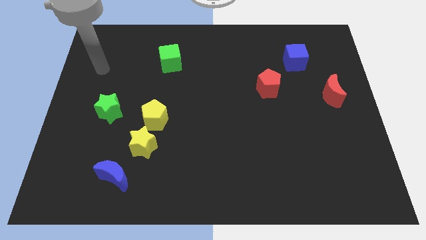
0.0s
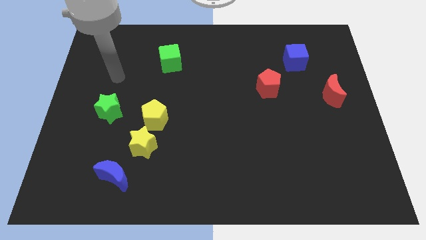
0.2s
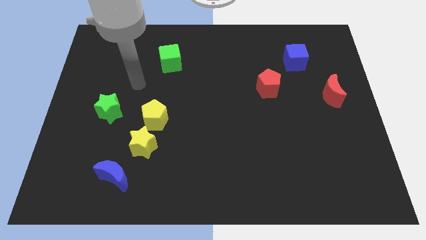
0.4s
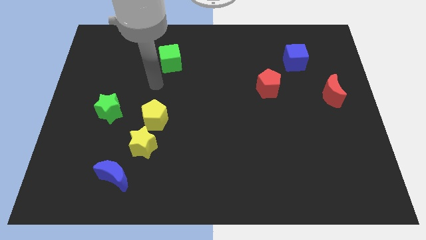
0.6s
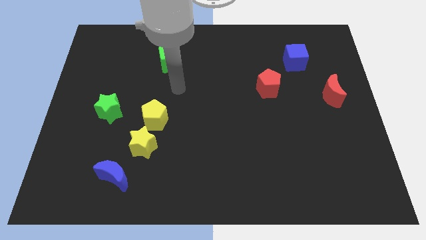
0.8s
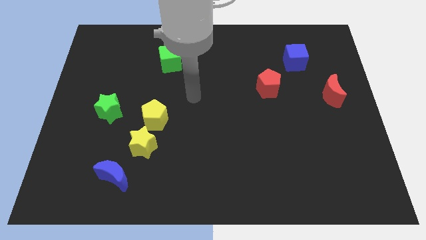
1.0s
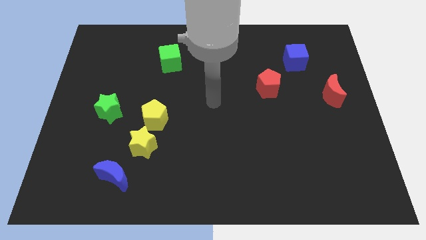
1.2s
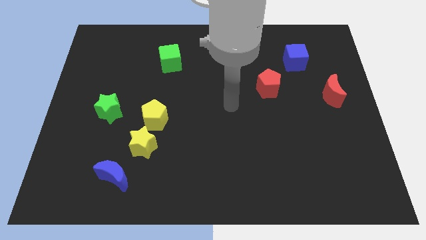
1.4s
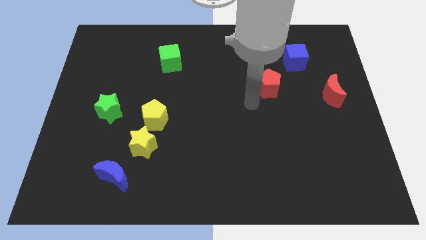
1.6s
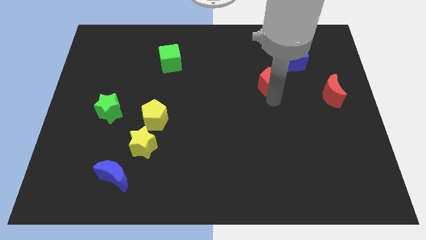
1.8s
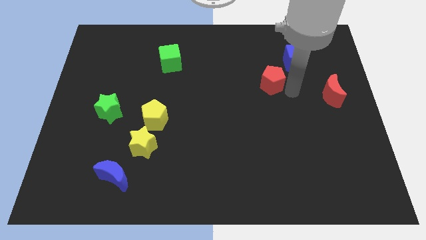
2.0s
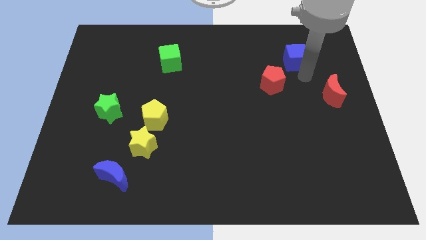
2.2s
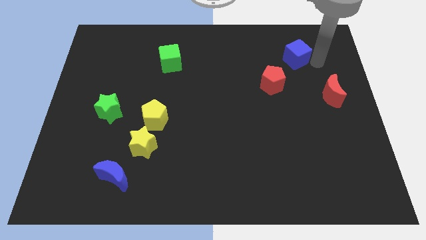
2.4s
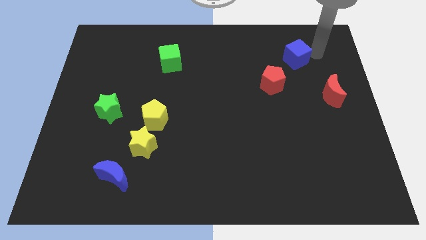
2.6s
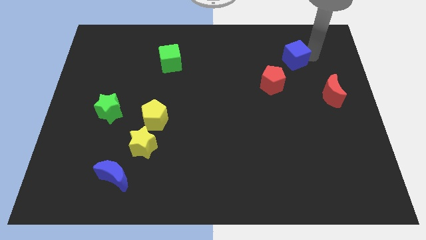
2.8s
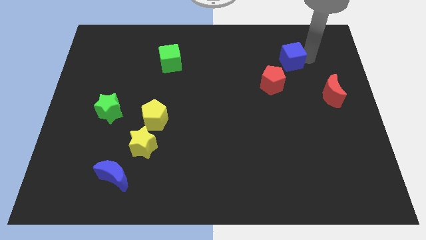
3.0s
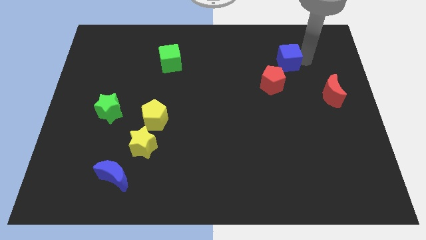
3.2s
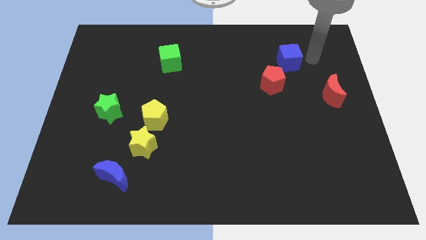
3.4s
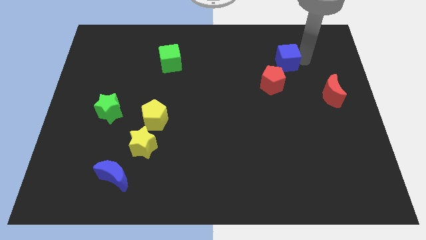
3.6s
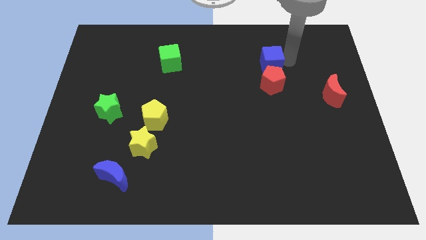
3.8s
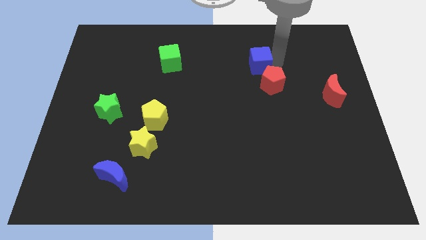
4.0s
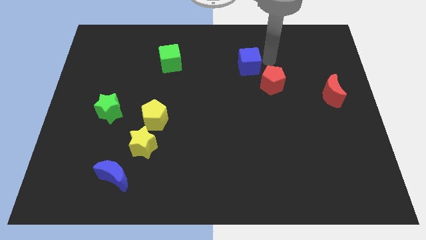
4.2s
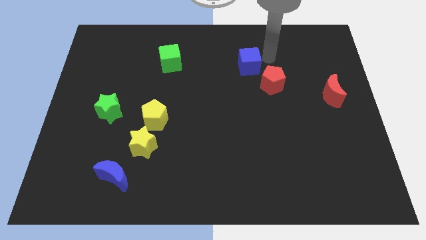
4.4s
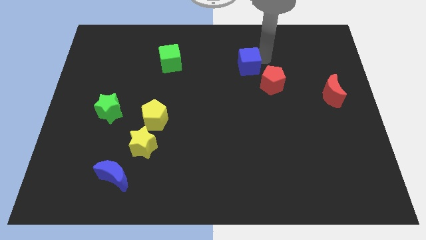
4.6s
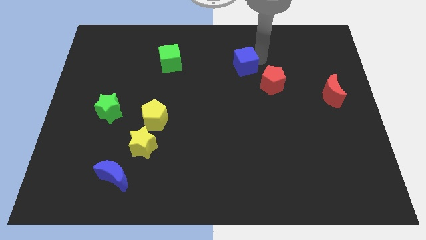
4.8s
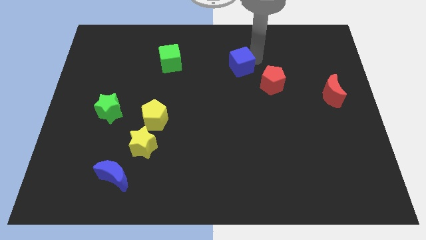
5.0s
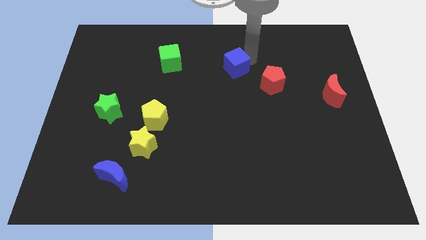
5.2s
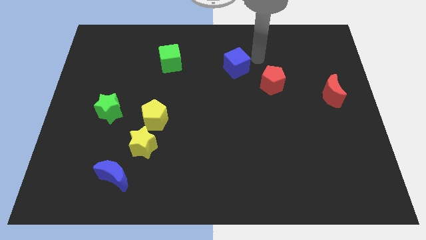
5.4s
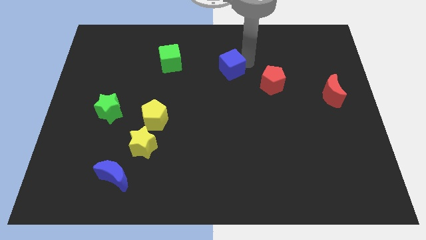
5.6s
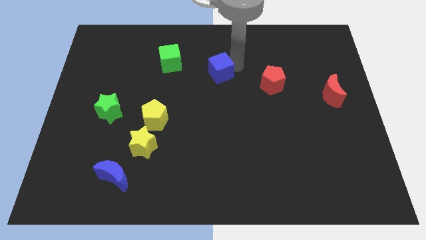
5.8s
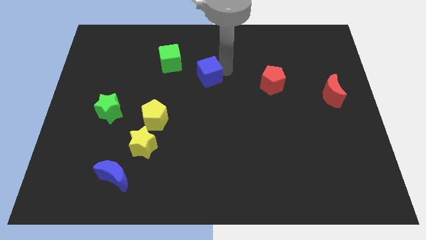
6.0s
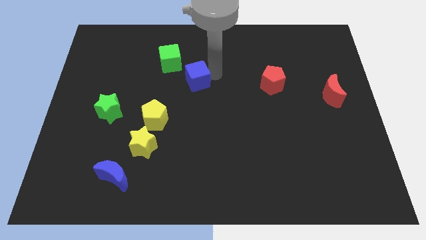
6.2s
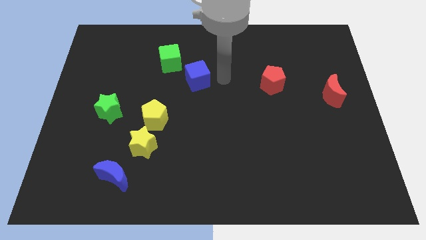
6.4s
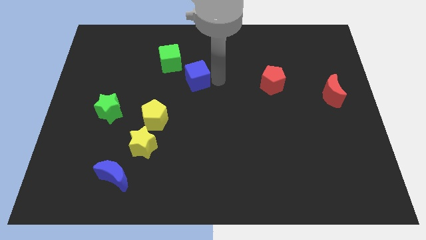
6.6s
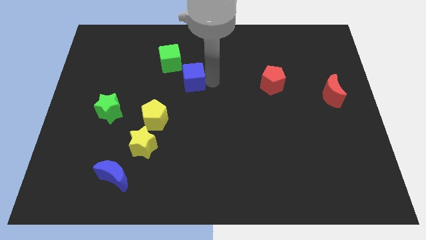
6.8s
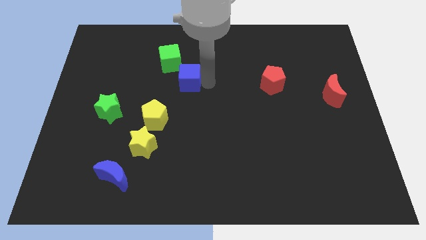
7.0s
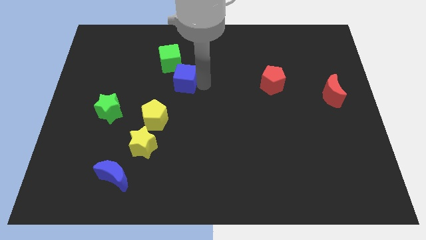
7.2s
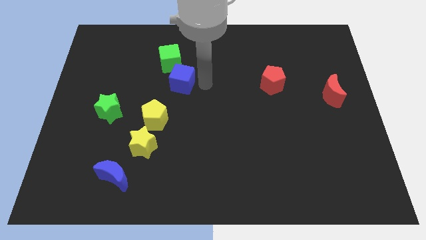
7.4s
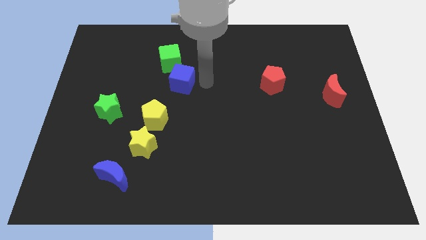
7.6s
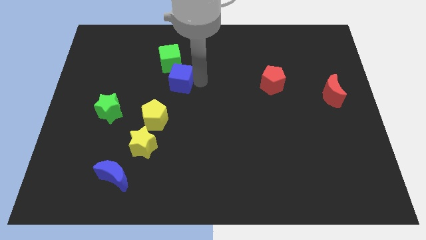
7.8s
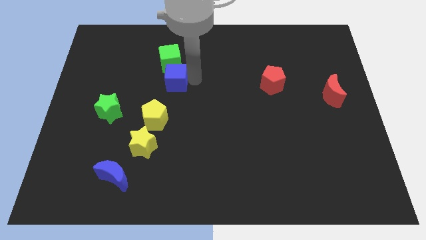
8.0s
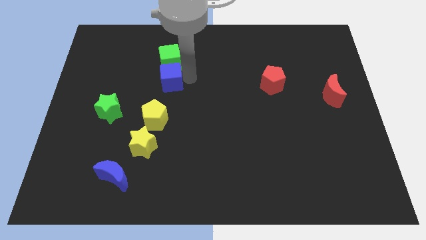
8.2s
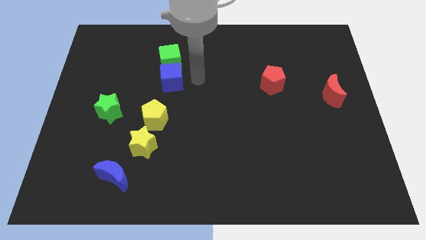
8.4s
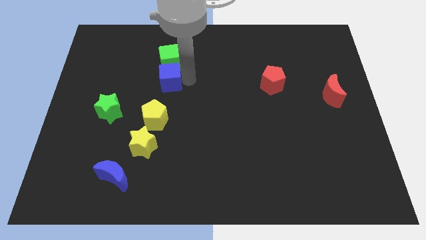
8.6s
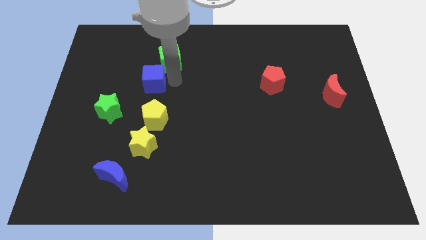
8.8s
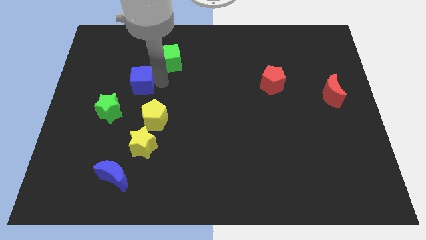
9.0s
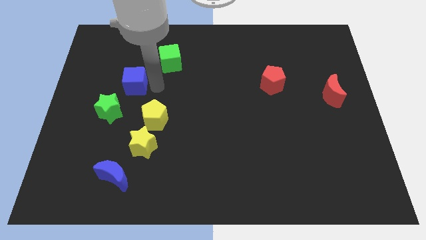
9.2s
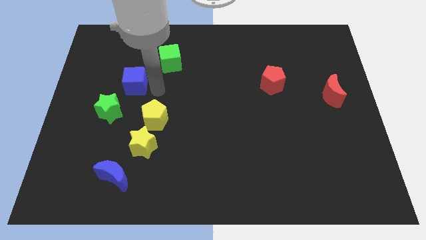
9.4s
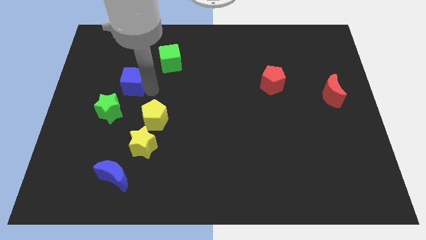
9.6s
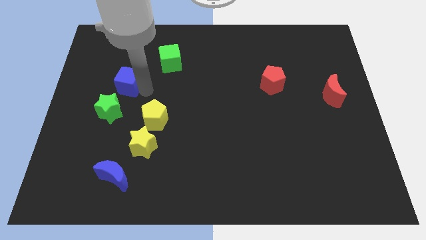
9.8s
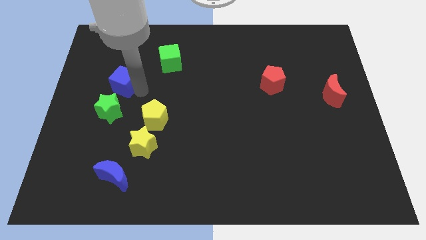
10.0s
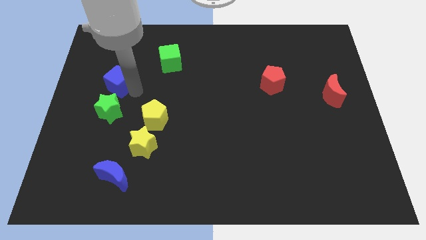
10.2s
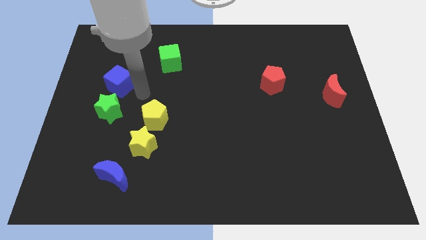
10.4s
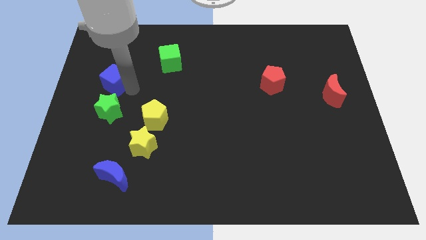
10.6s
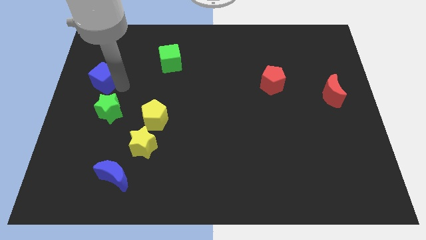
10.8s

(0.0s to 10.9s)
put the blue cube to the left side of the board

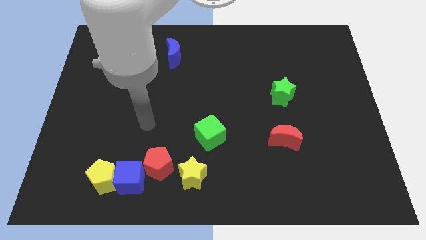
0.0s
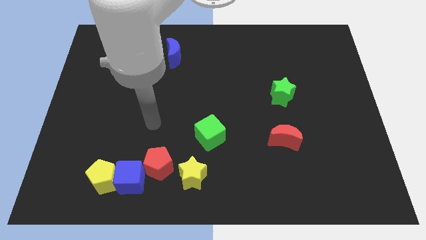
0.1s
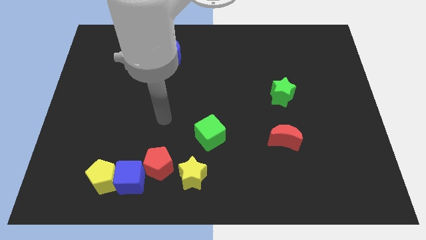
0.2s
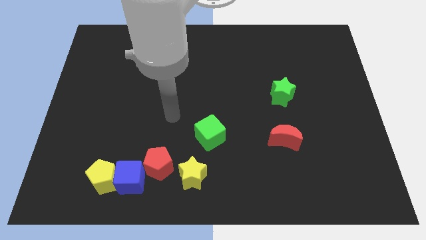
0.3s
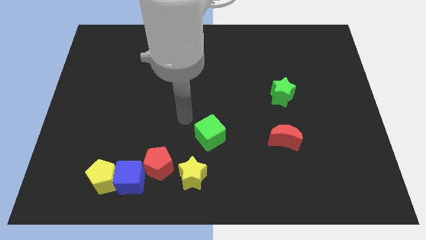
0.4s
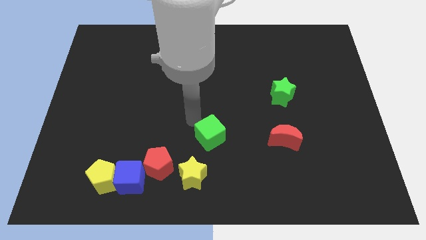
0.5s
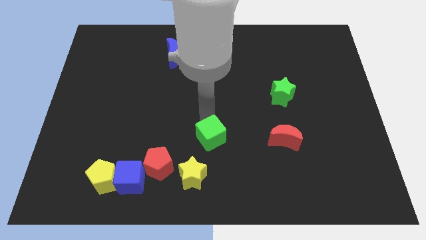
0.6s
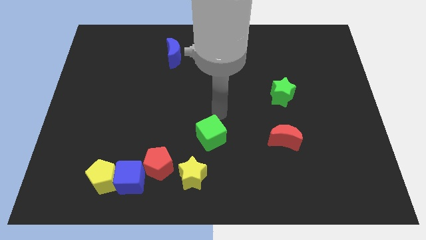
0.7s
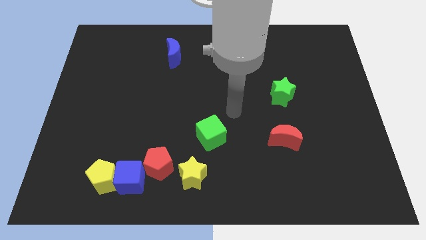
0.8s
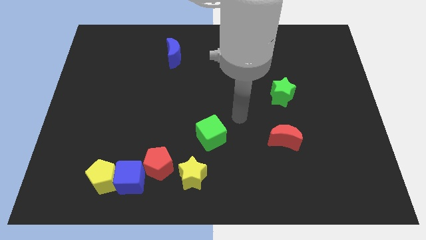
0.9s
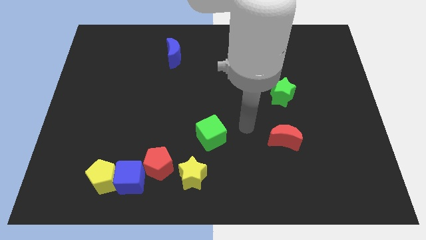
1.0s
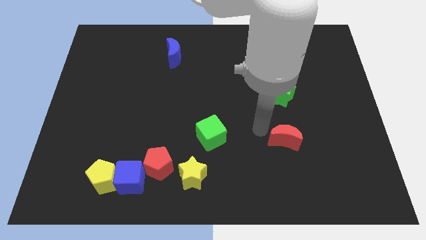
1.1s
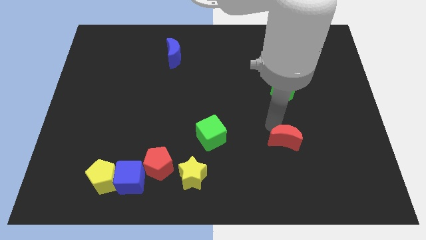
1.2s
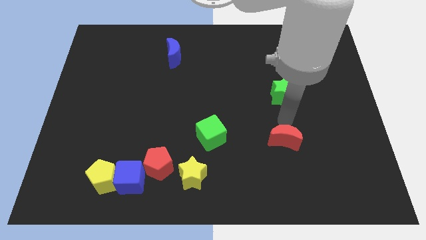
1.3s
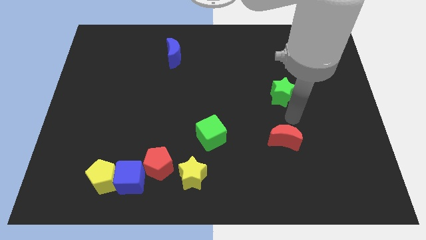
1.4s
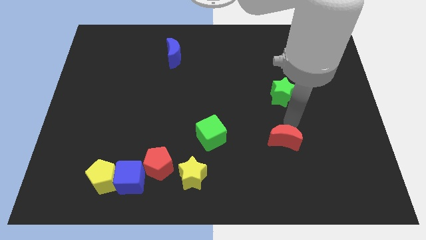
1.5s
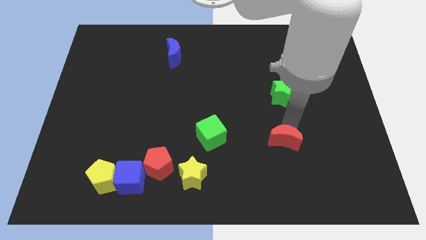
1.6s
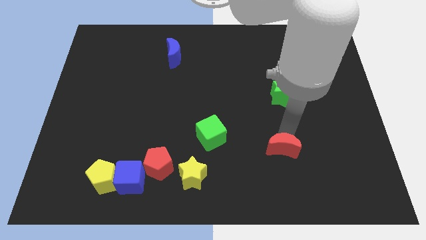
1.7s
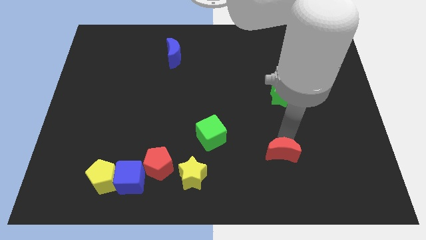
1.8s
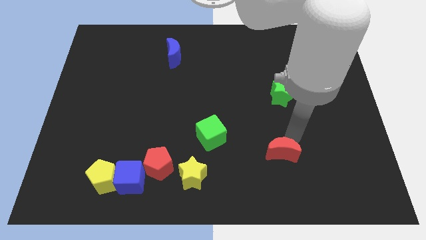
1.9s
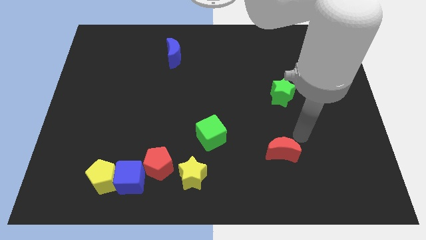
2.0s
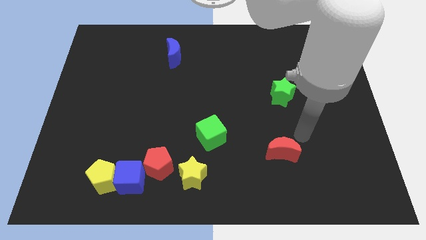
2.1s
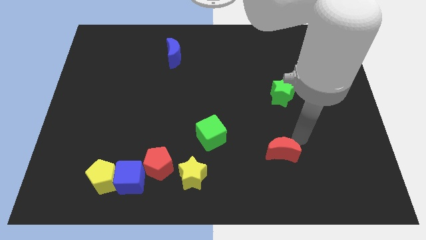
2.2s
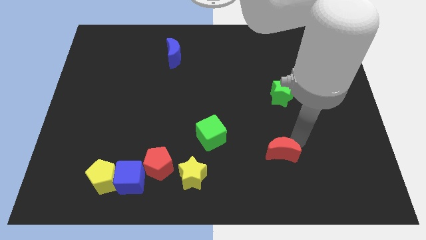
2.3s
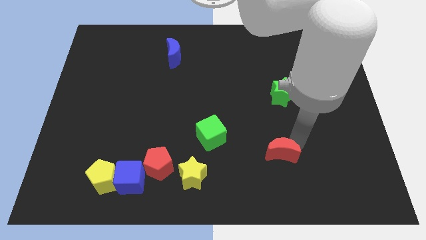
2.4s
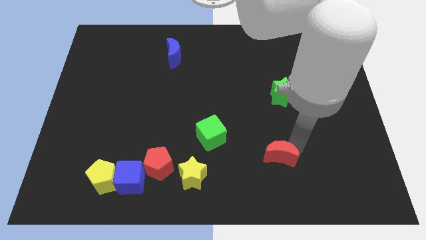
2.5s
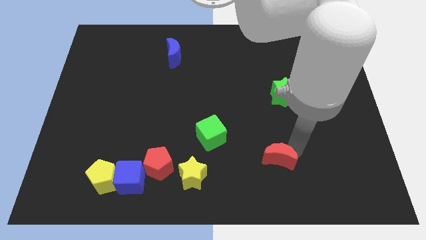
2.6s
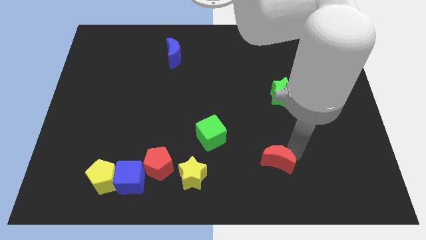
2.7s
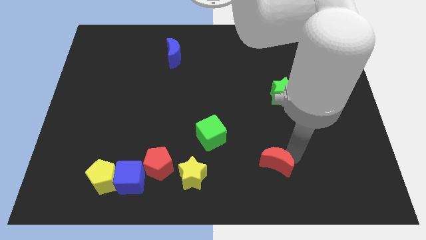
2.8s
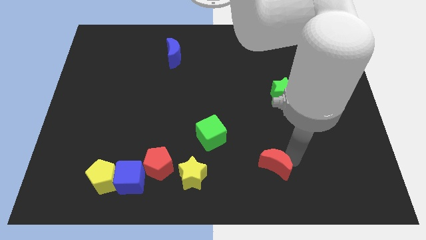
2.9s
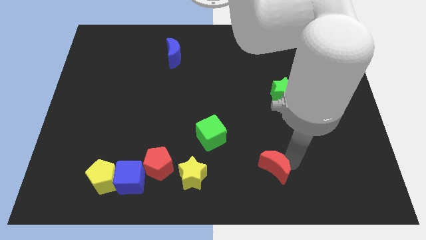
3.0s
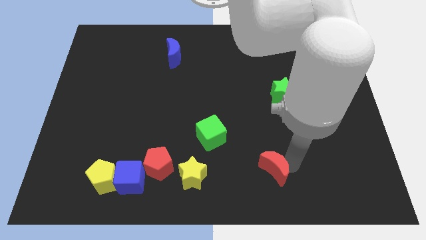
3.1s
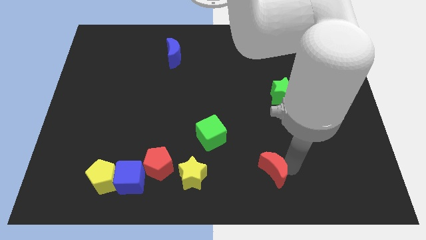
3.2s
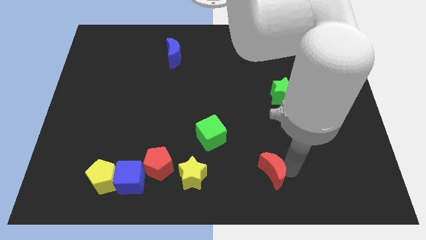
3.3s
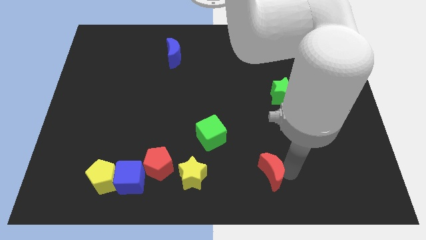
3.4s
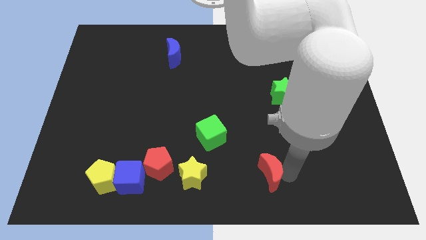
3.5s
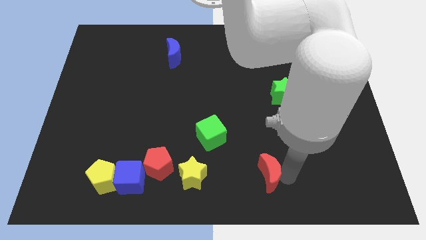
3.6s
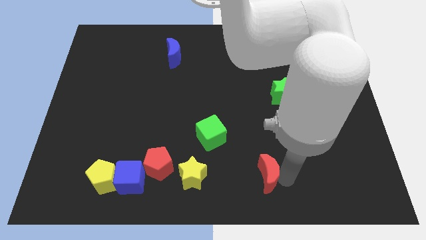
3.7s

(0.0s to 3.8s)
move the red moon to the bottom side
